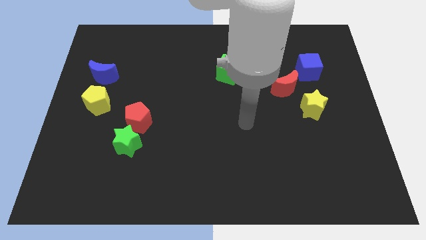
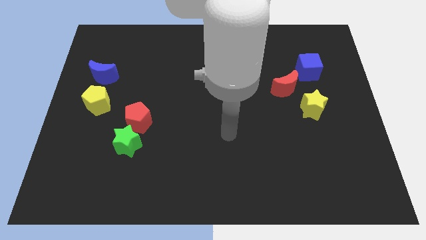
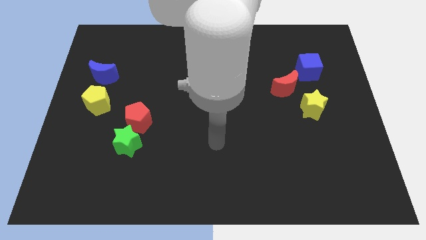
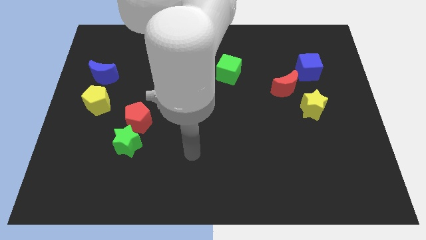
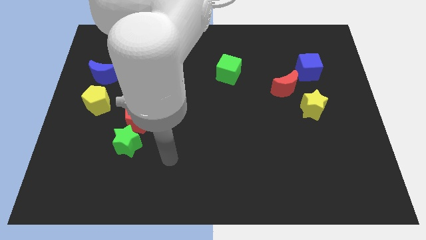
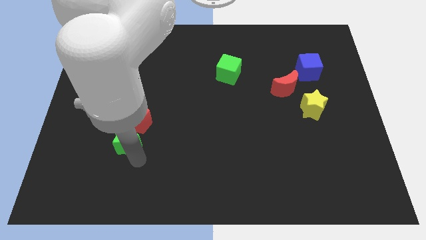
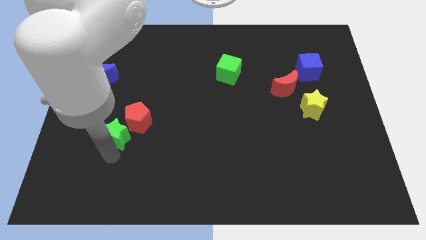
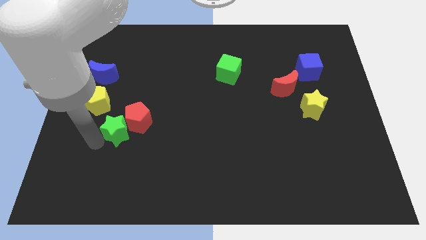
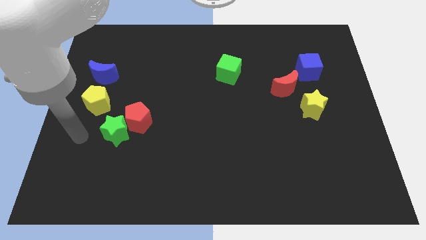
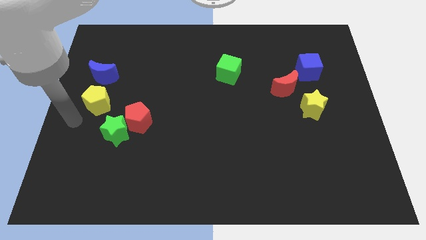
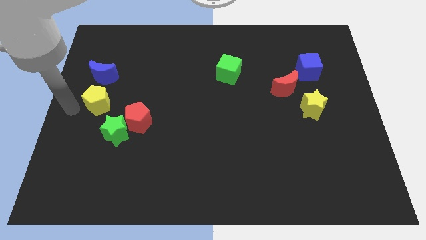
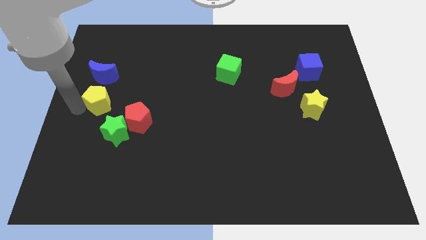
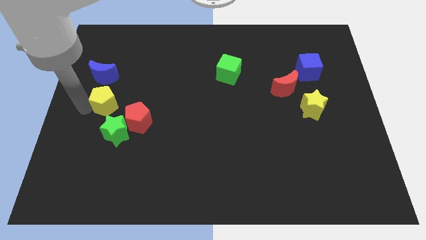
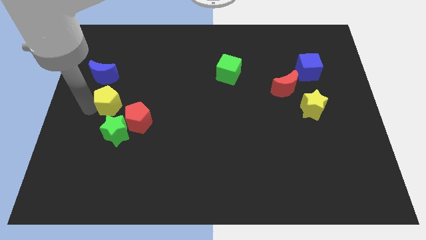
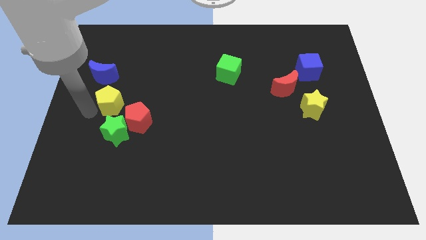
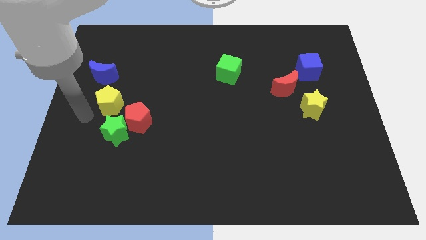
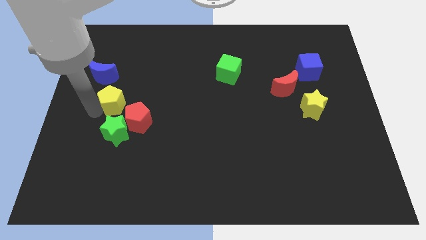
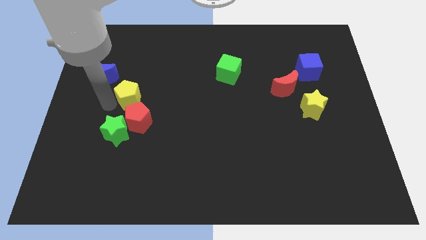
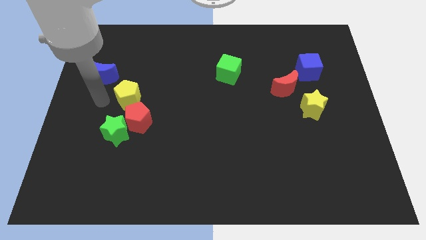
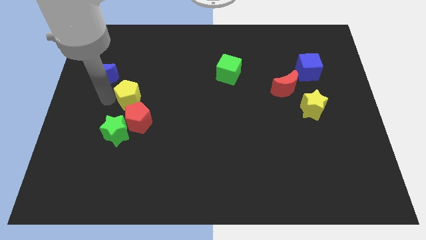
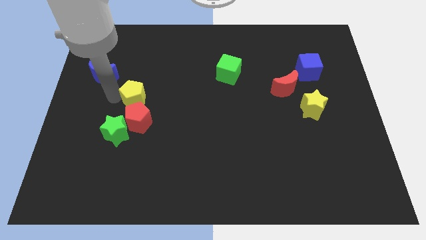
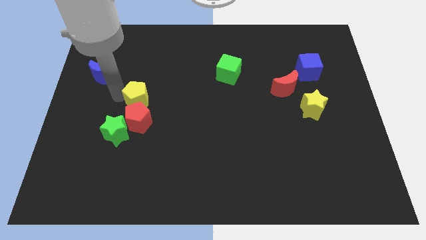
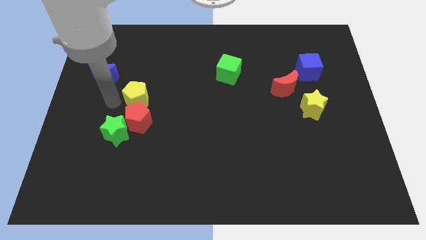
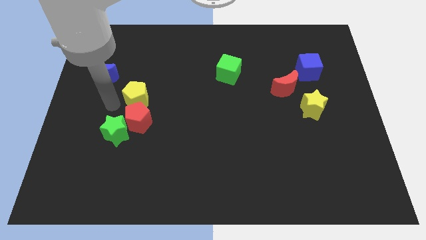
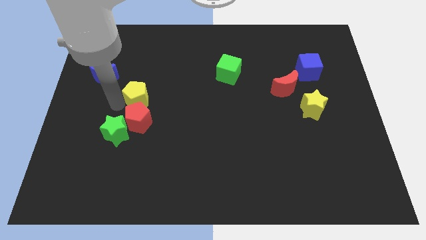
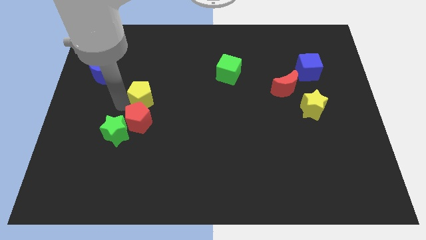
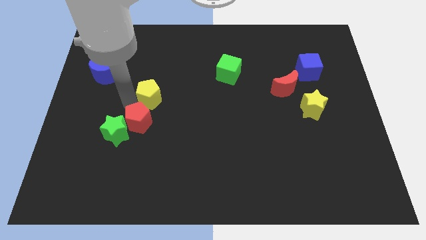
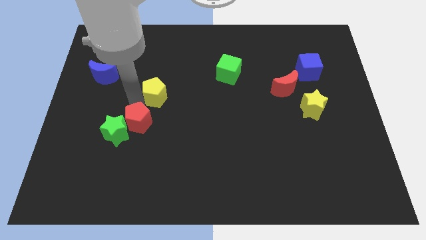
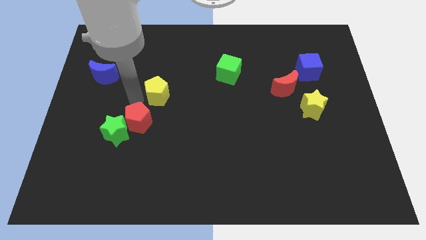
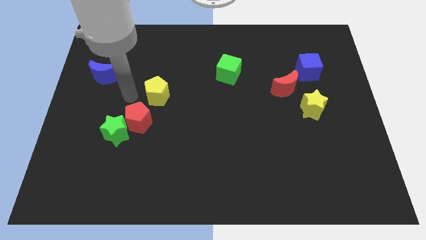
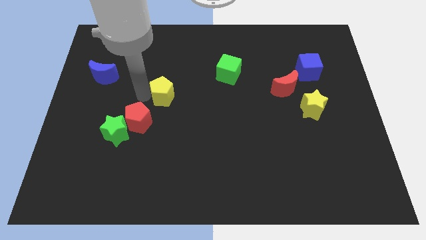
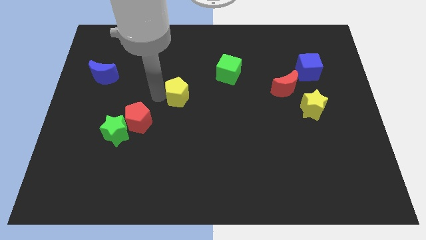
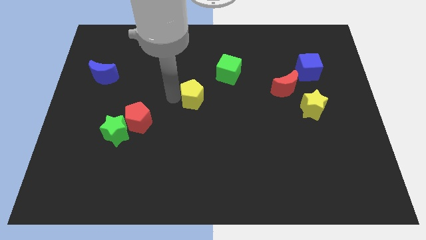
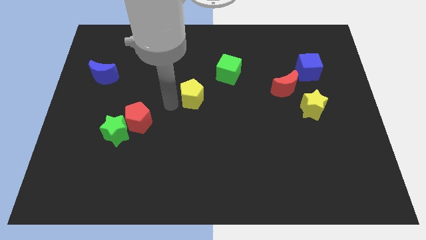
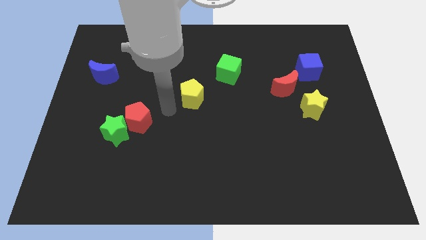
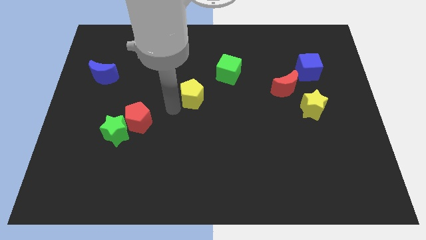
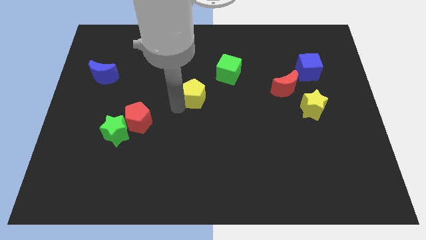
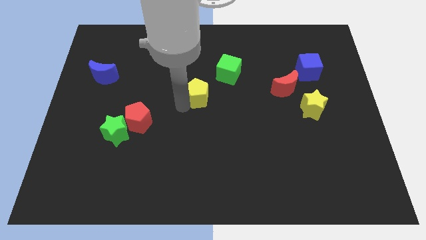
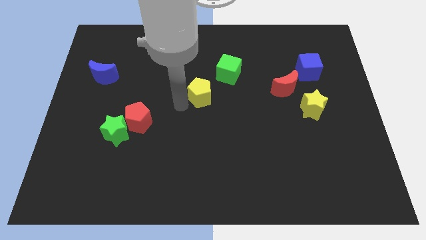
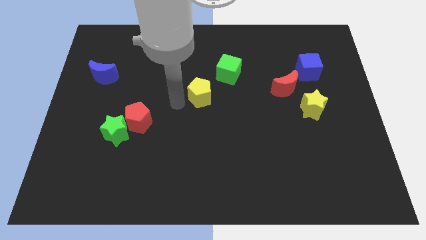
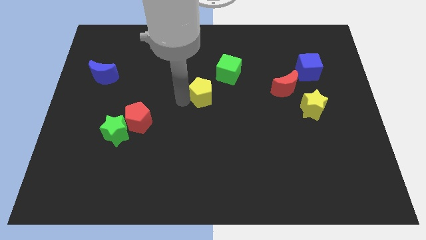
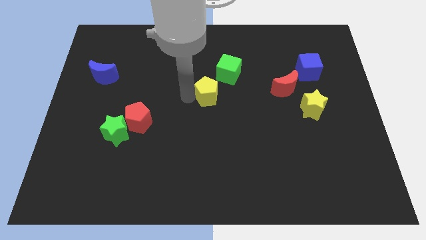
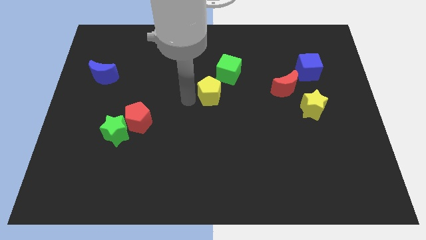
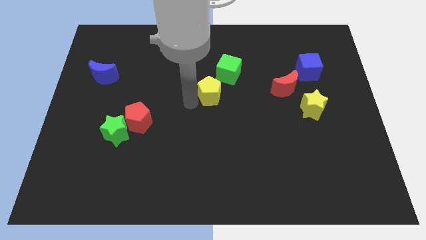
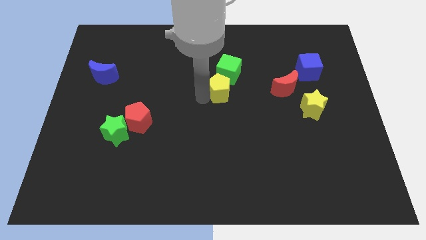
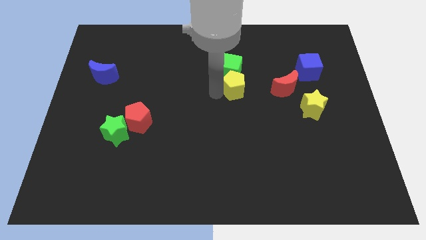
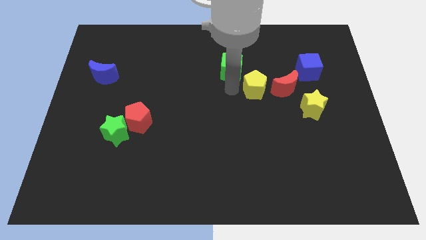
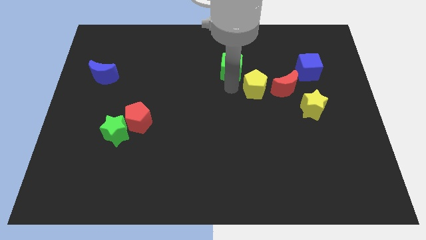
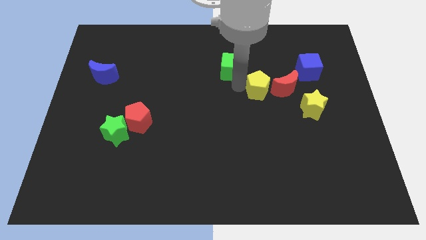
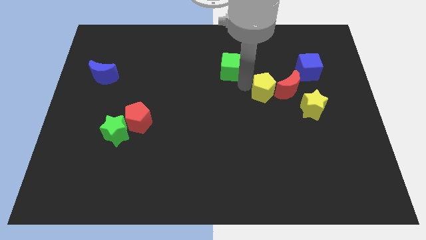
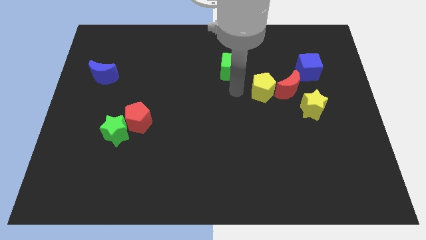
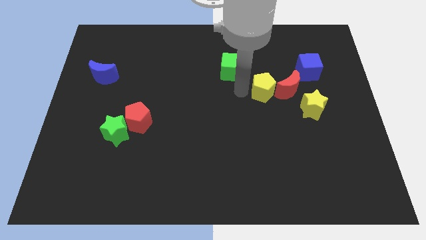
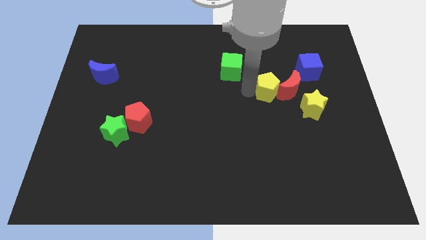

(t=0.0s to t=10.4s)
put the yellow pentagon towards the red moon

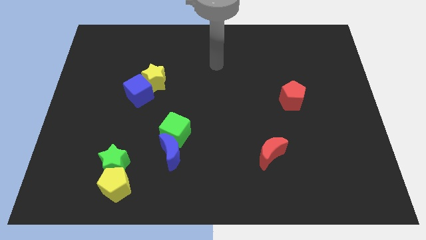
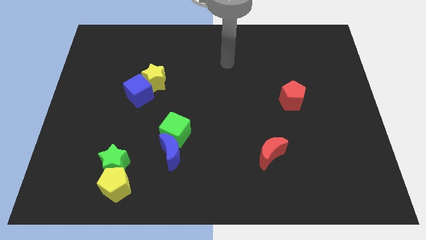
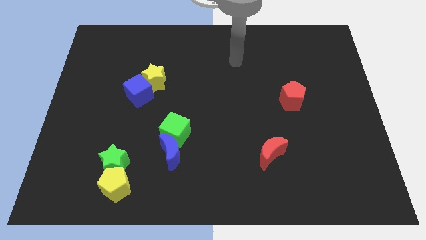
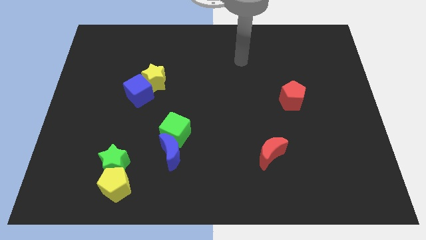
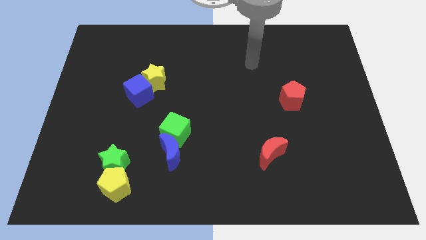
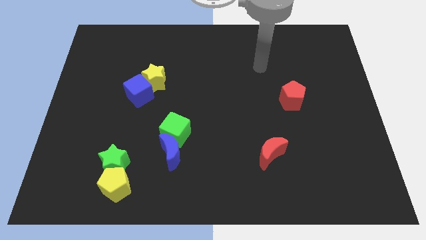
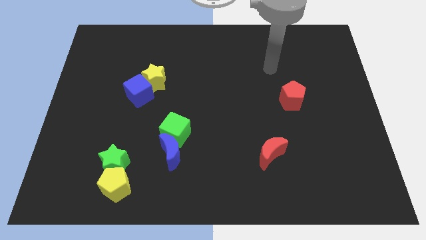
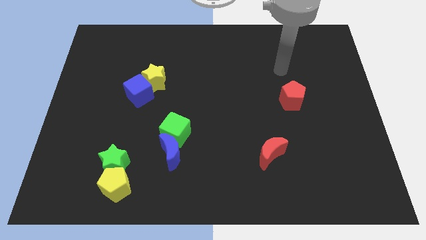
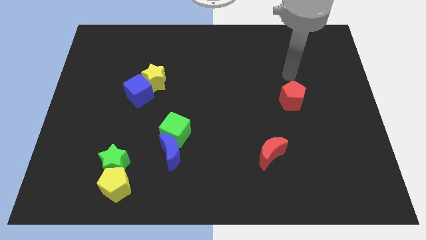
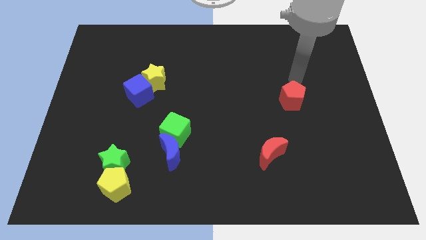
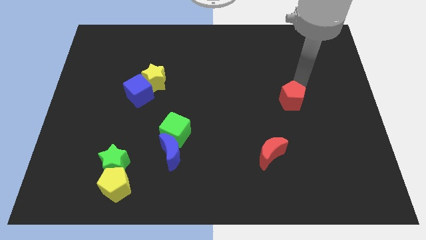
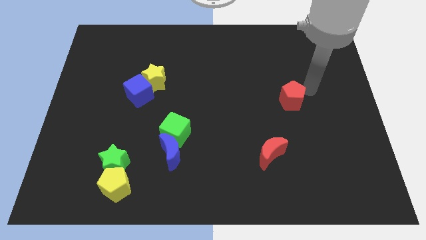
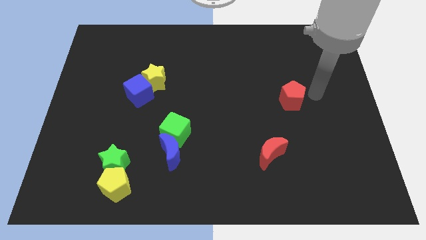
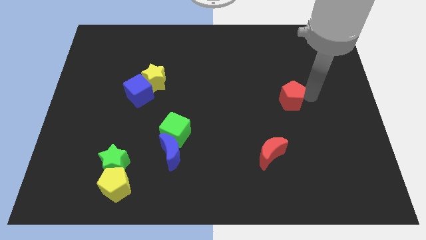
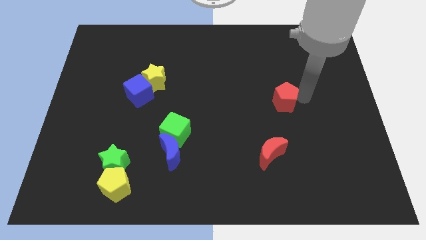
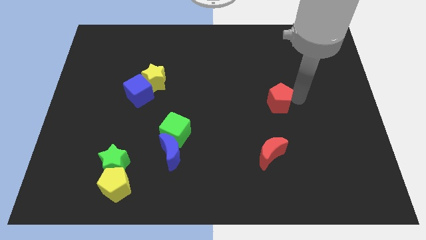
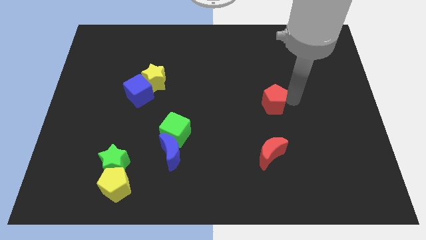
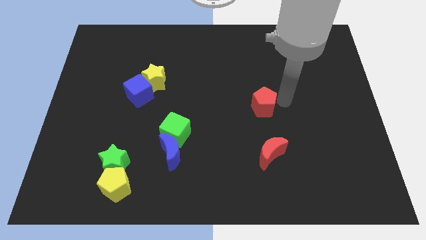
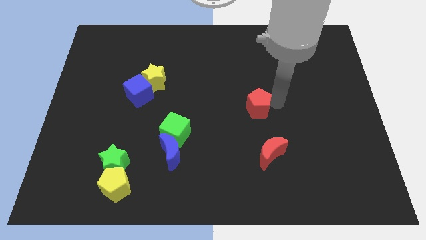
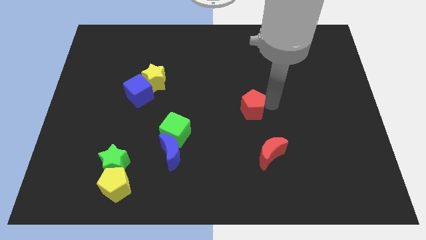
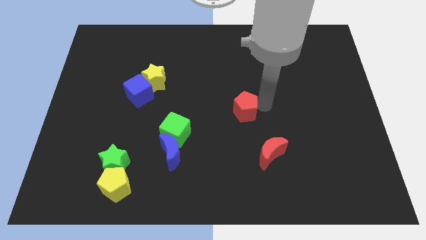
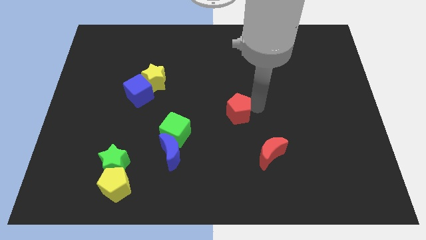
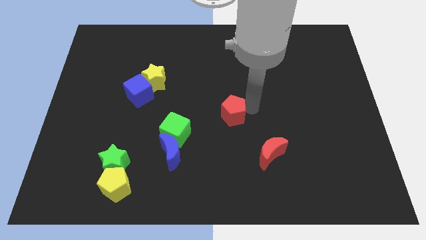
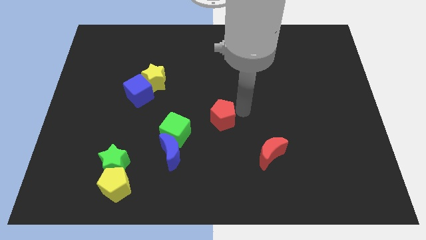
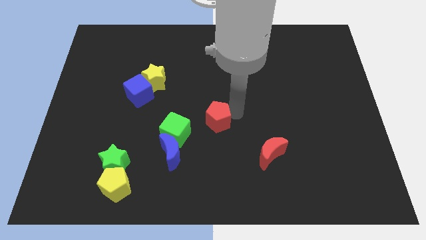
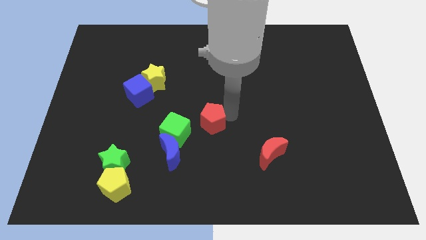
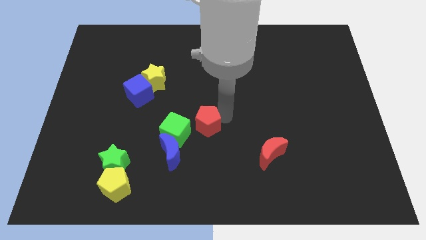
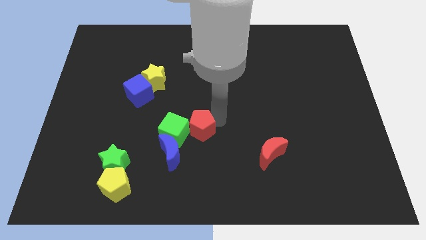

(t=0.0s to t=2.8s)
move the red pentagon close to the green cube
